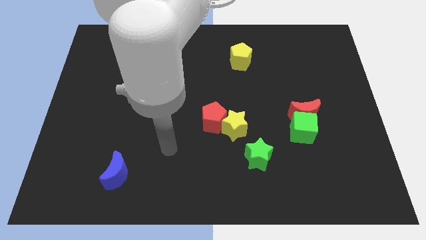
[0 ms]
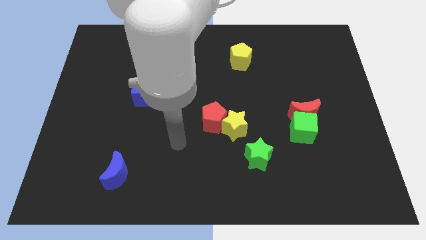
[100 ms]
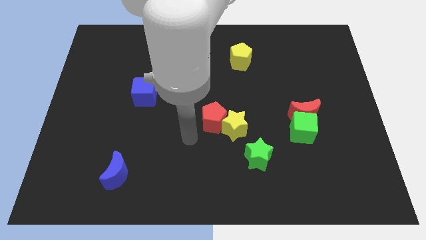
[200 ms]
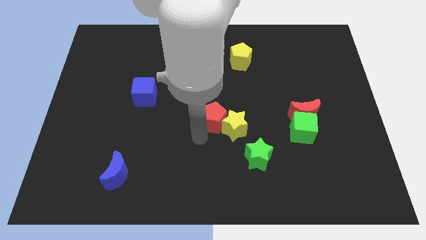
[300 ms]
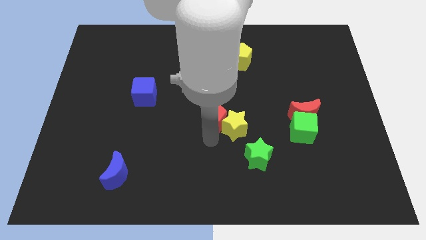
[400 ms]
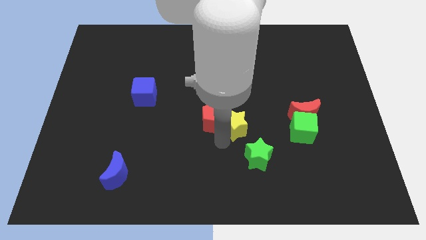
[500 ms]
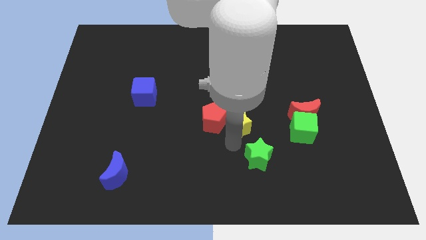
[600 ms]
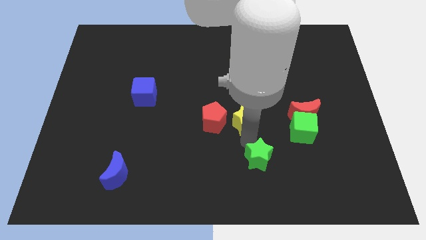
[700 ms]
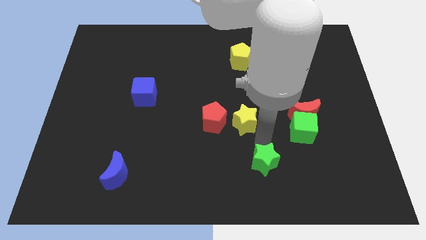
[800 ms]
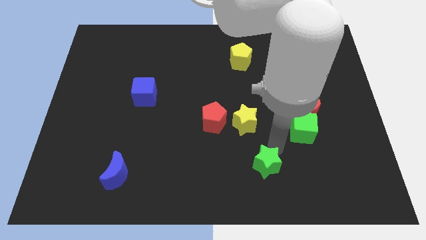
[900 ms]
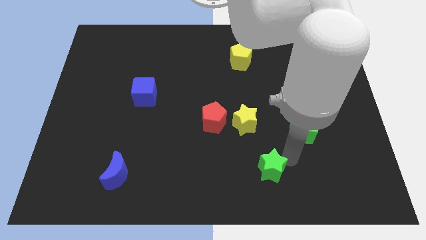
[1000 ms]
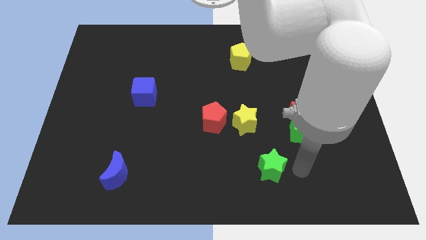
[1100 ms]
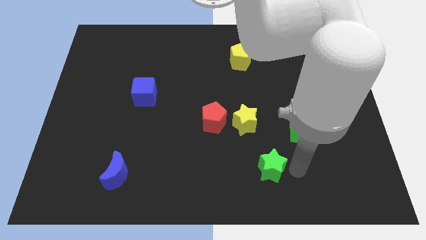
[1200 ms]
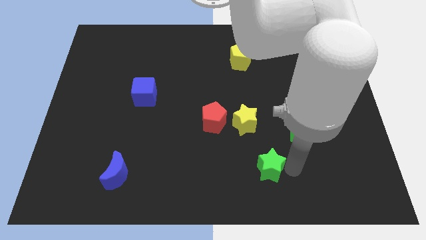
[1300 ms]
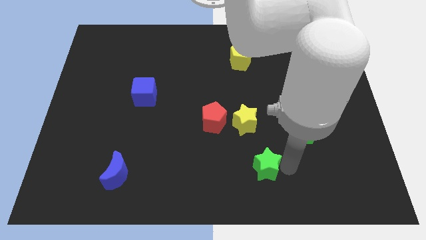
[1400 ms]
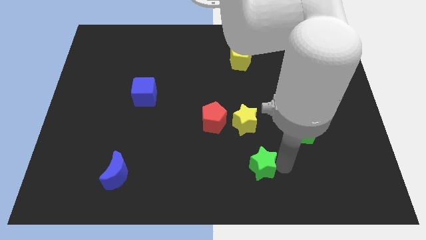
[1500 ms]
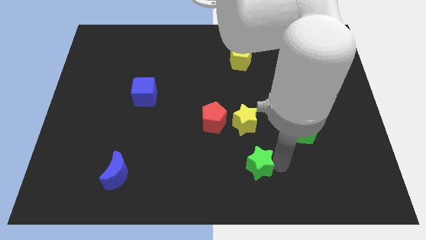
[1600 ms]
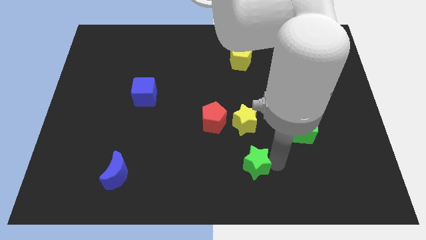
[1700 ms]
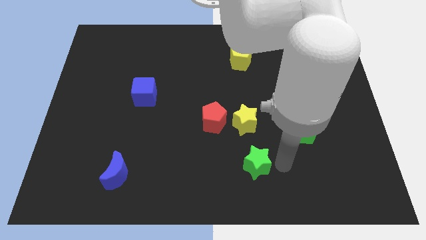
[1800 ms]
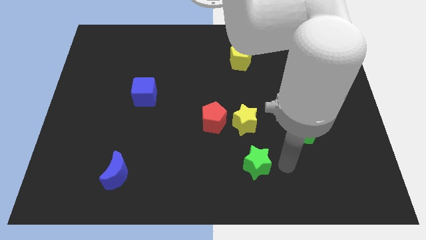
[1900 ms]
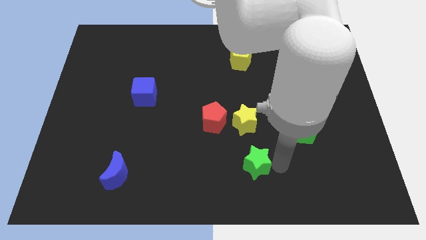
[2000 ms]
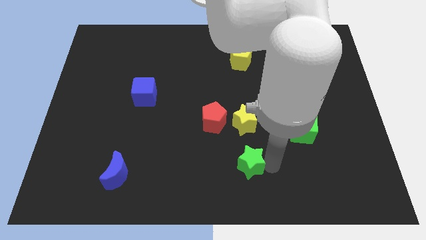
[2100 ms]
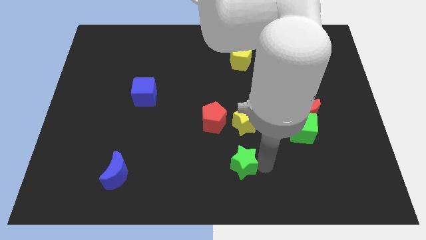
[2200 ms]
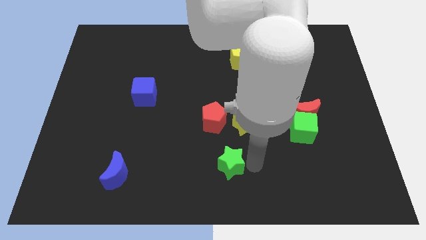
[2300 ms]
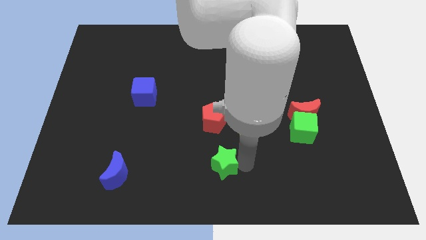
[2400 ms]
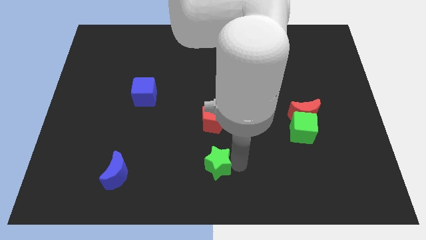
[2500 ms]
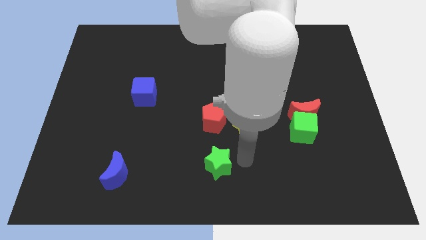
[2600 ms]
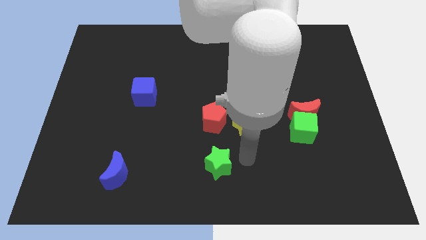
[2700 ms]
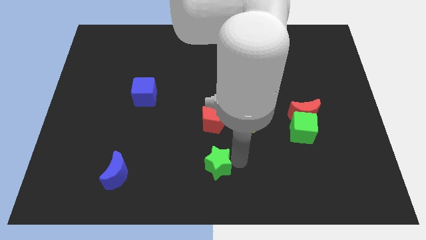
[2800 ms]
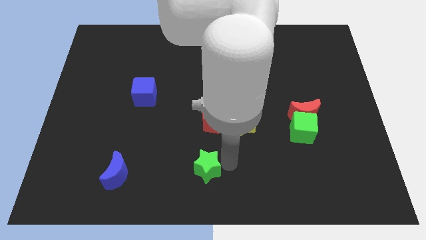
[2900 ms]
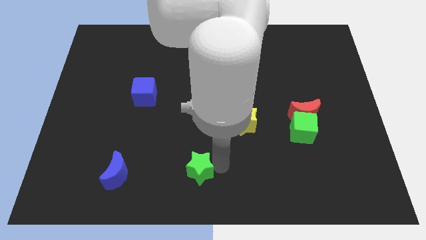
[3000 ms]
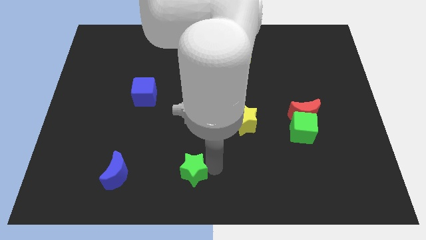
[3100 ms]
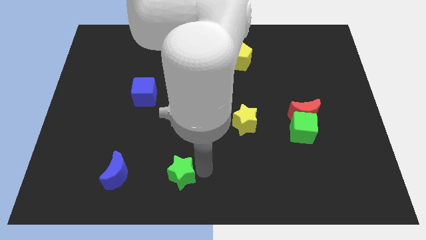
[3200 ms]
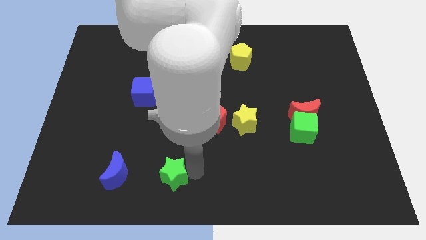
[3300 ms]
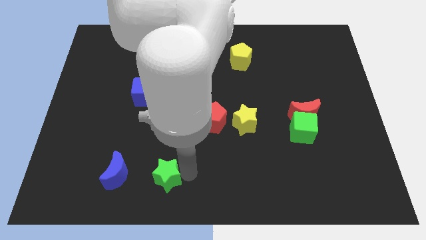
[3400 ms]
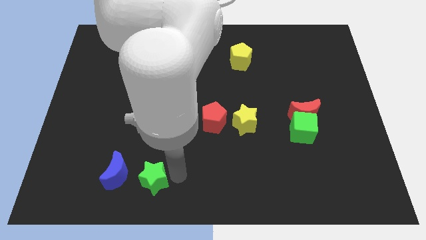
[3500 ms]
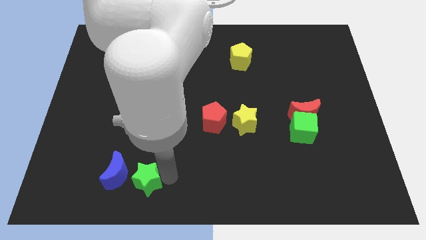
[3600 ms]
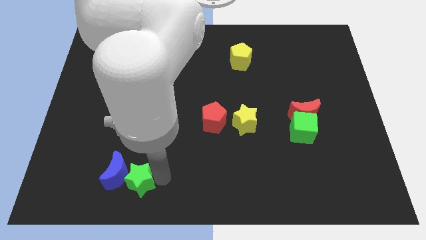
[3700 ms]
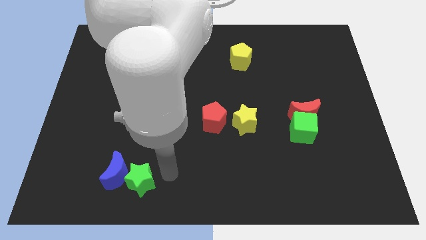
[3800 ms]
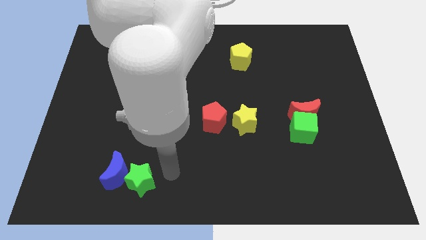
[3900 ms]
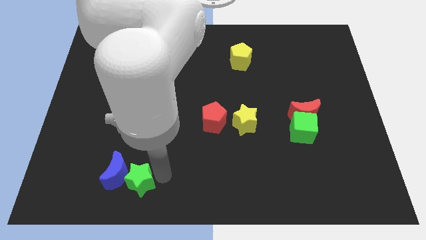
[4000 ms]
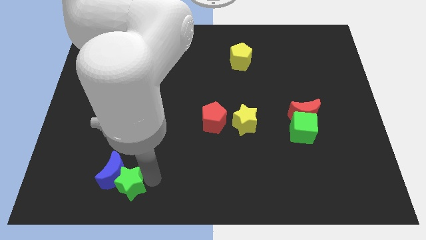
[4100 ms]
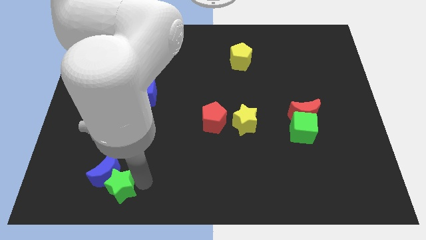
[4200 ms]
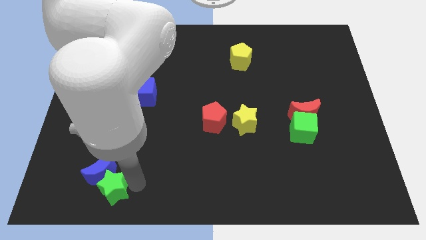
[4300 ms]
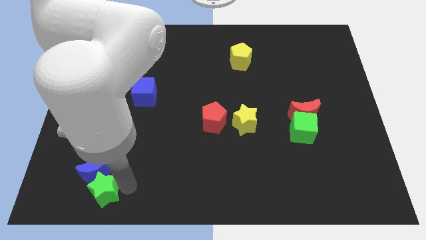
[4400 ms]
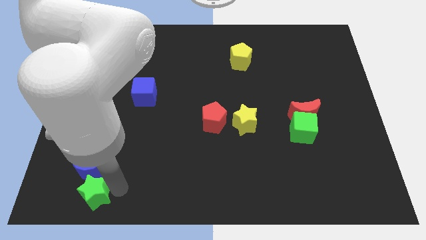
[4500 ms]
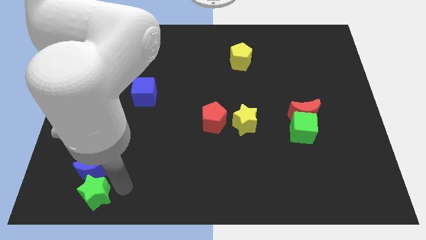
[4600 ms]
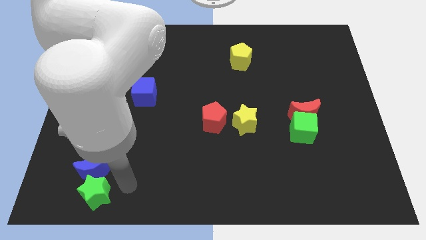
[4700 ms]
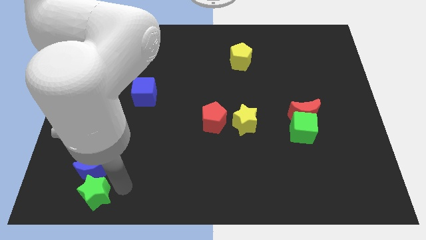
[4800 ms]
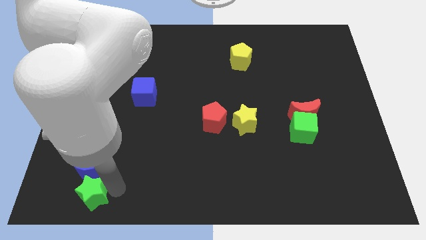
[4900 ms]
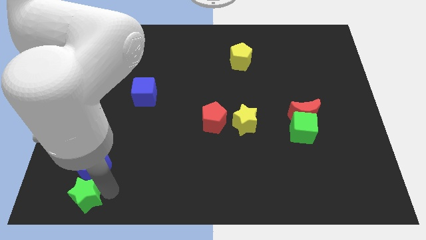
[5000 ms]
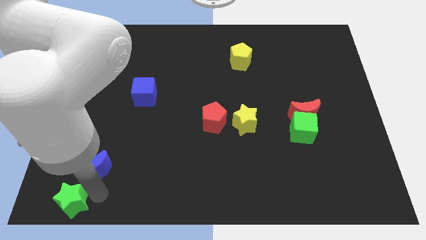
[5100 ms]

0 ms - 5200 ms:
move the green star to the lower left corner

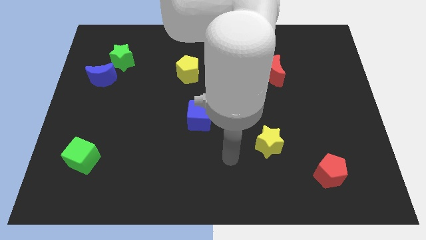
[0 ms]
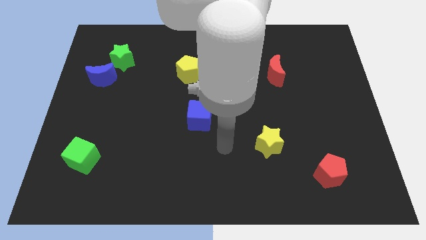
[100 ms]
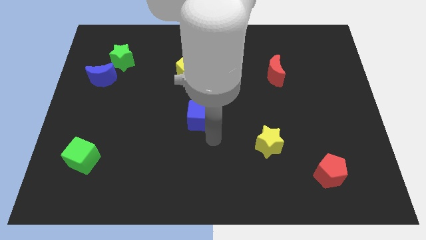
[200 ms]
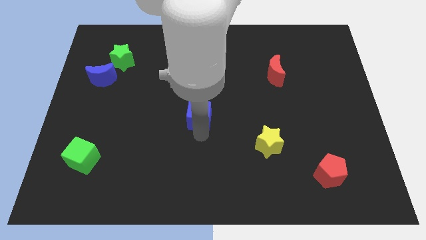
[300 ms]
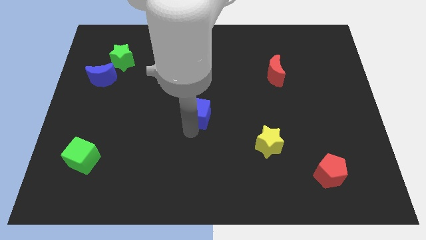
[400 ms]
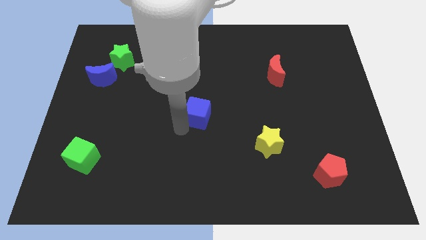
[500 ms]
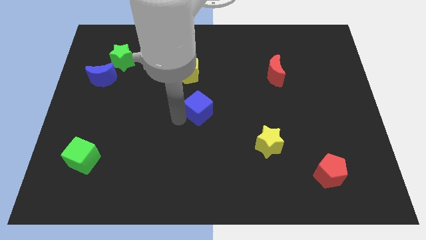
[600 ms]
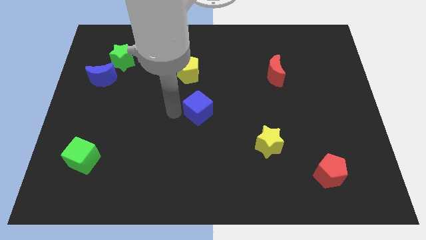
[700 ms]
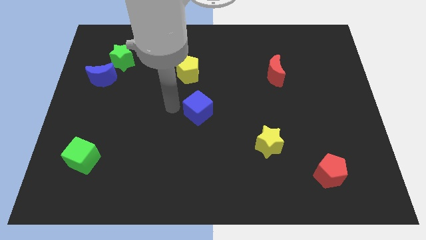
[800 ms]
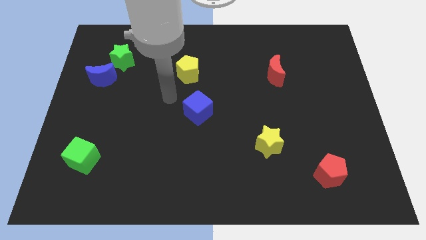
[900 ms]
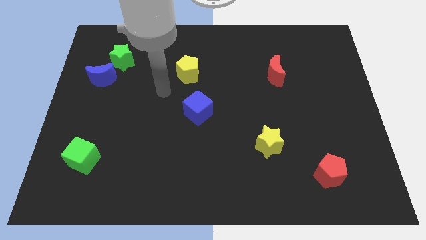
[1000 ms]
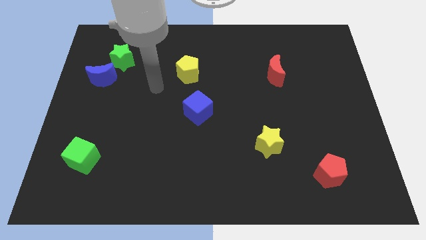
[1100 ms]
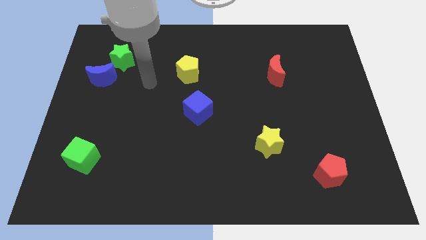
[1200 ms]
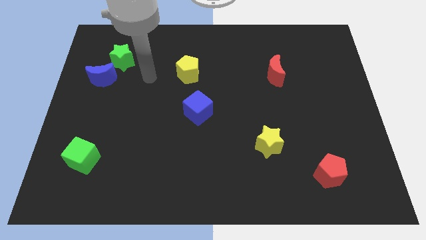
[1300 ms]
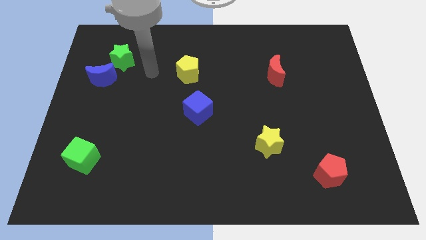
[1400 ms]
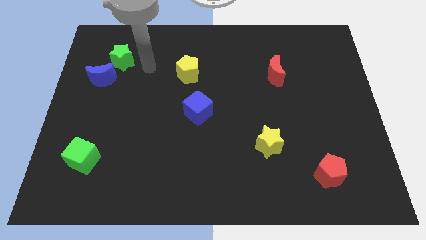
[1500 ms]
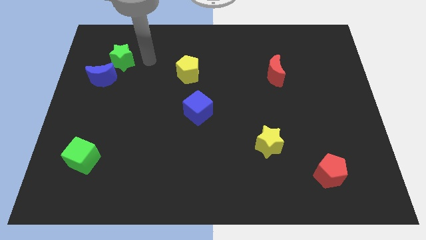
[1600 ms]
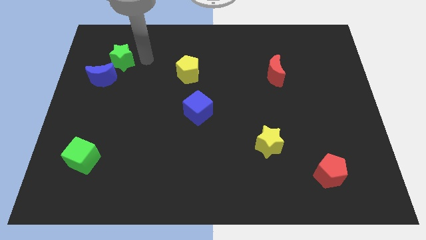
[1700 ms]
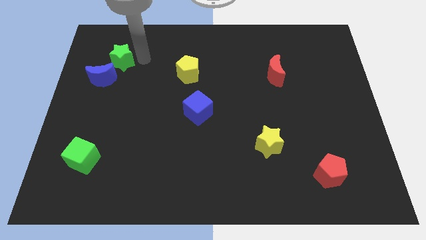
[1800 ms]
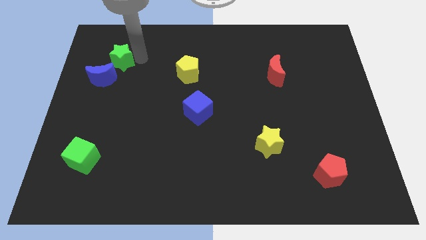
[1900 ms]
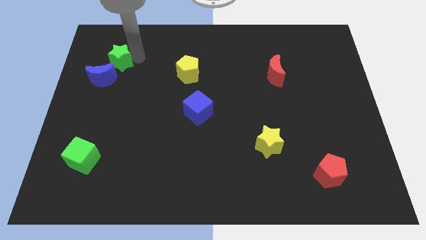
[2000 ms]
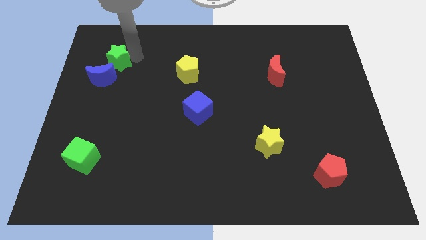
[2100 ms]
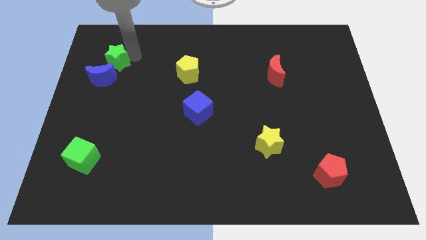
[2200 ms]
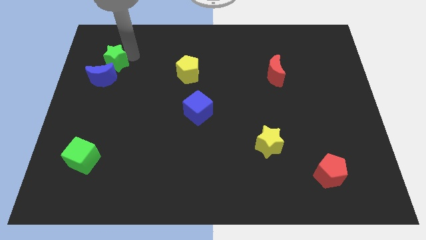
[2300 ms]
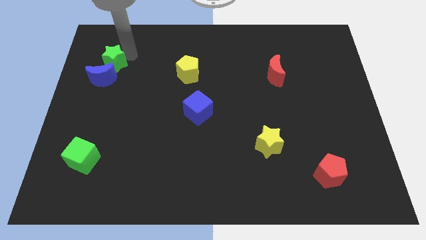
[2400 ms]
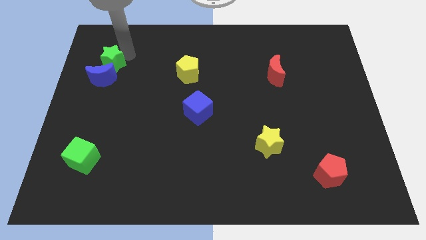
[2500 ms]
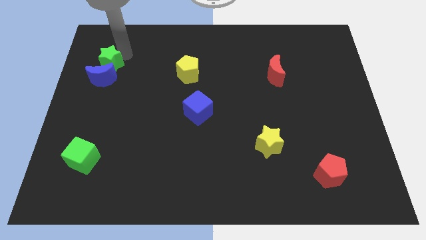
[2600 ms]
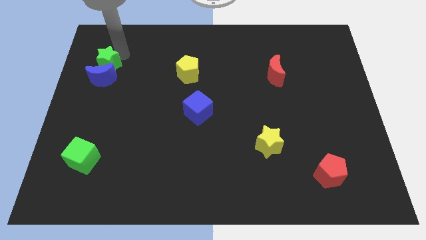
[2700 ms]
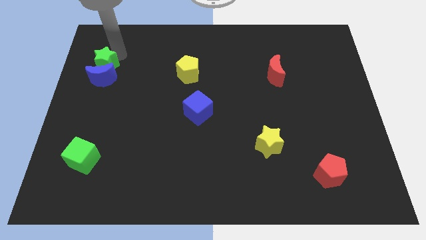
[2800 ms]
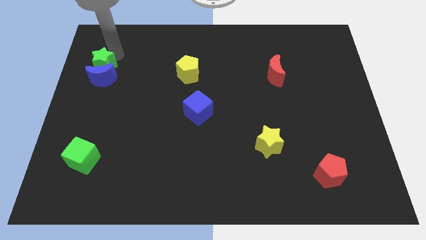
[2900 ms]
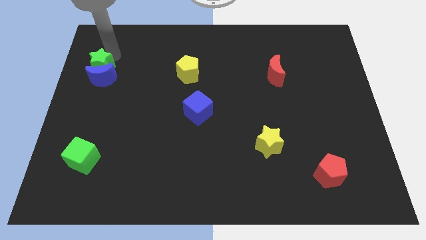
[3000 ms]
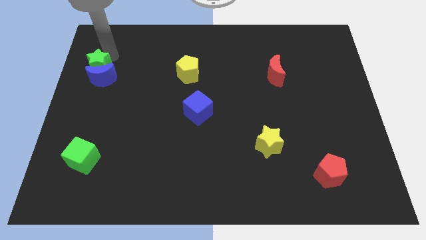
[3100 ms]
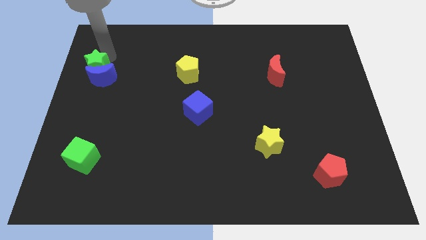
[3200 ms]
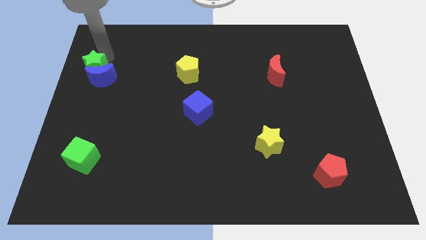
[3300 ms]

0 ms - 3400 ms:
slide the green star to the center left
